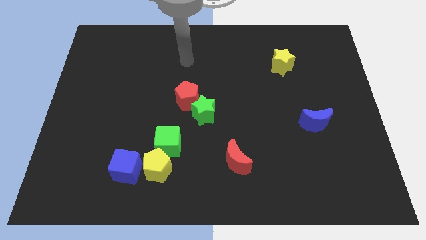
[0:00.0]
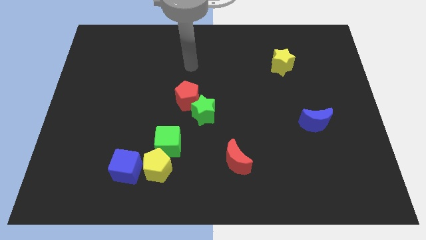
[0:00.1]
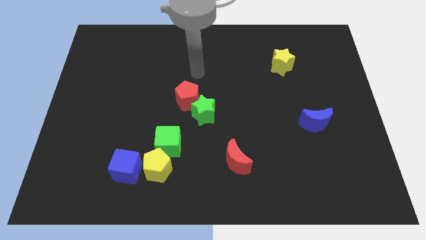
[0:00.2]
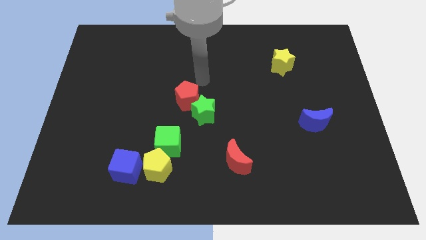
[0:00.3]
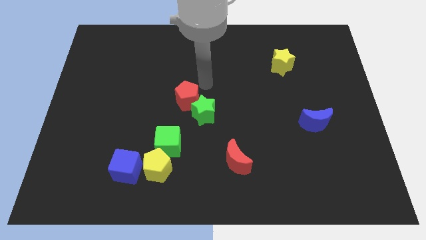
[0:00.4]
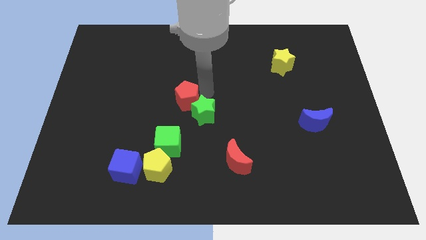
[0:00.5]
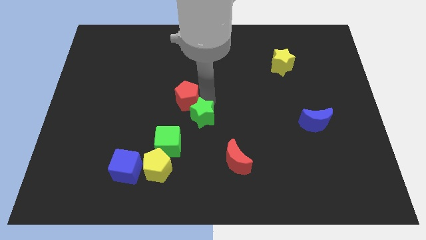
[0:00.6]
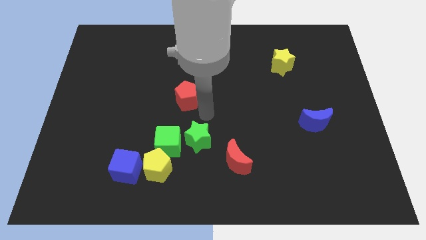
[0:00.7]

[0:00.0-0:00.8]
move the red pentagon away from the green star

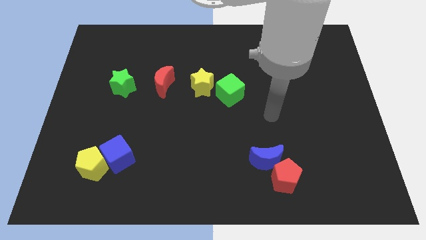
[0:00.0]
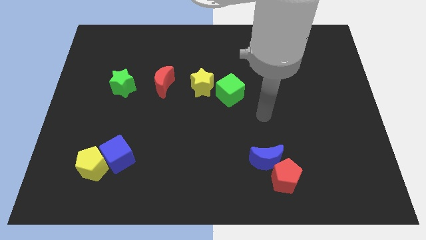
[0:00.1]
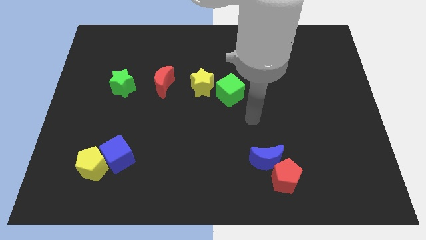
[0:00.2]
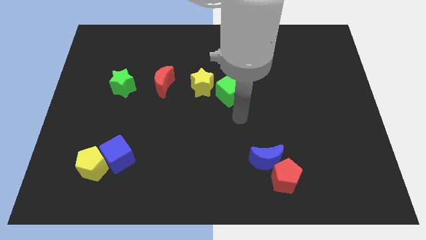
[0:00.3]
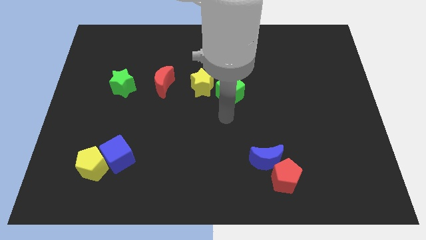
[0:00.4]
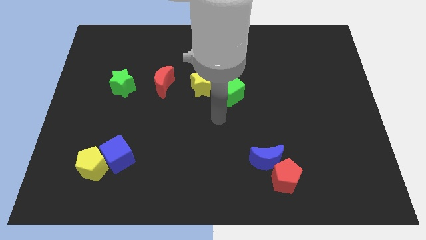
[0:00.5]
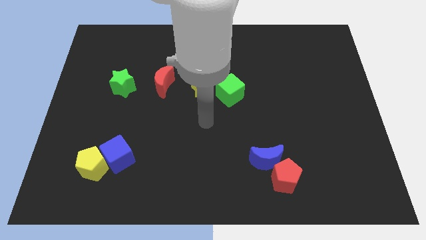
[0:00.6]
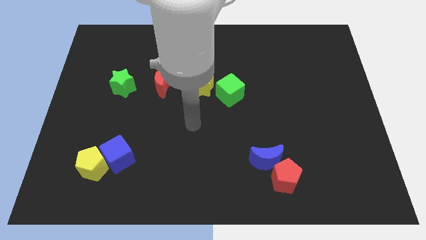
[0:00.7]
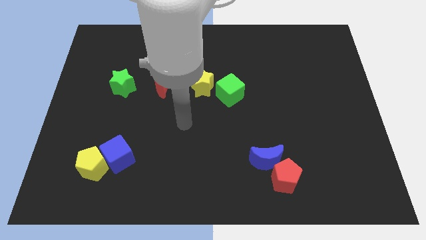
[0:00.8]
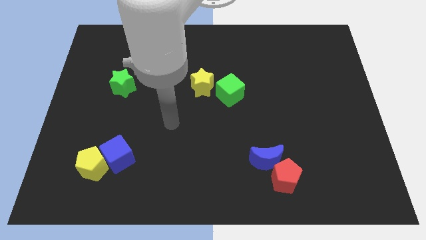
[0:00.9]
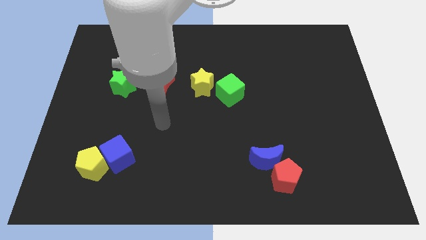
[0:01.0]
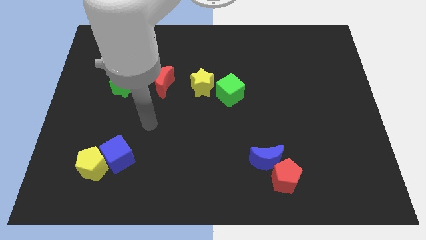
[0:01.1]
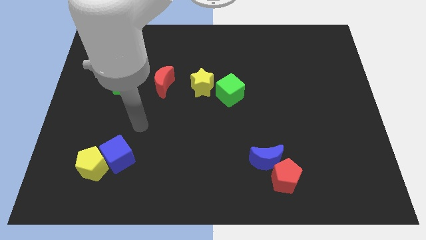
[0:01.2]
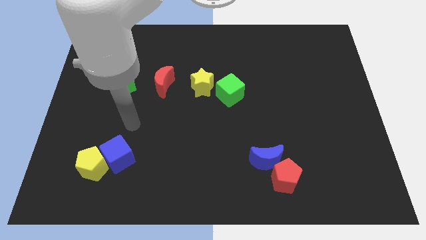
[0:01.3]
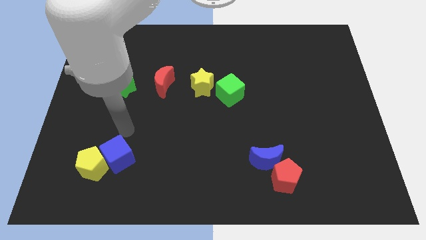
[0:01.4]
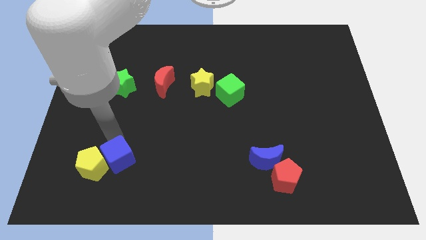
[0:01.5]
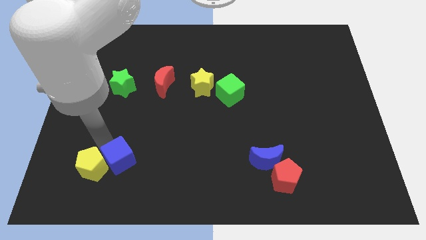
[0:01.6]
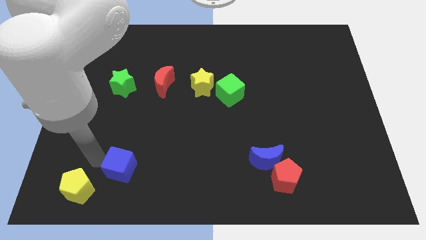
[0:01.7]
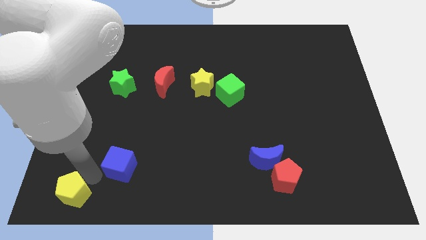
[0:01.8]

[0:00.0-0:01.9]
pull the blue cube apart from the yellow pentagon

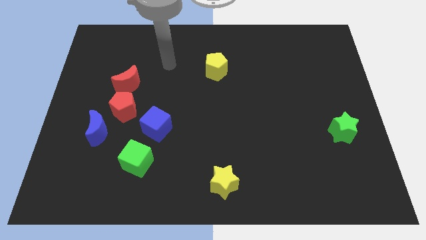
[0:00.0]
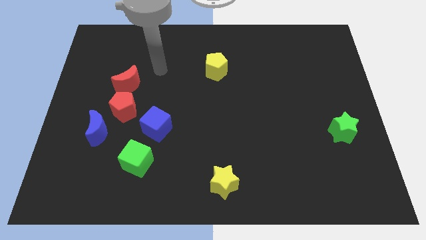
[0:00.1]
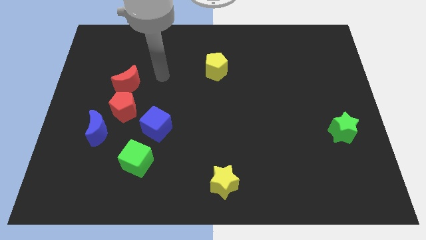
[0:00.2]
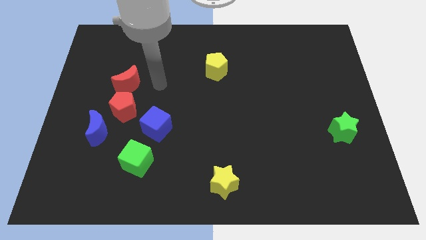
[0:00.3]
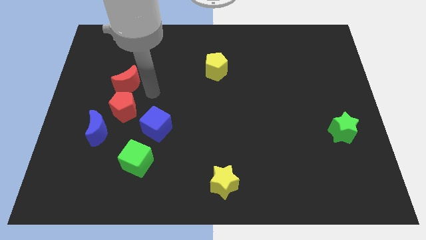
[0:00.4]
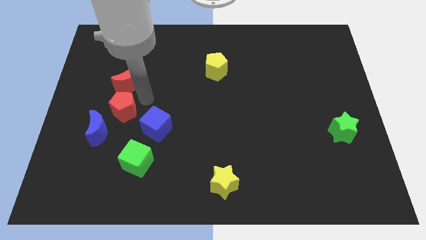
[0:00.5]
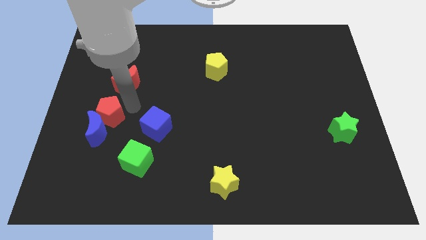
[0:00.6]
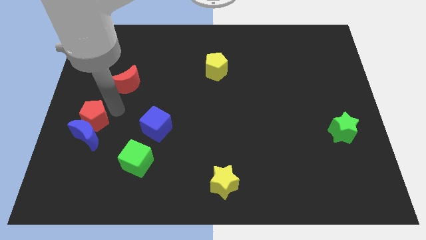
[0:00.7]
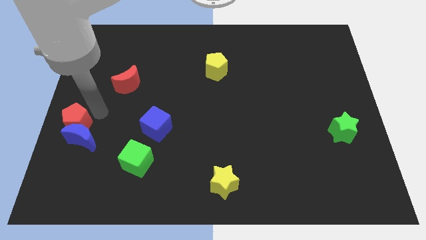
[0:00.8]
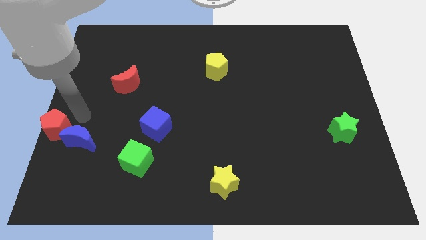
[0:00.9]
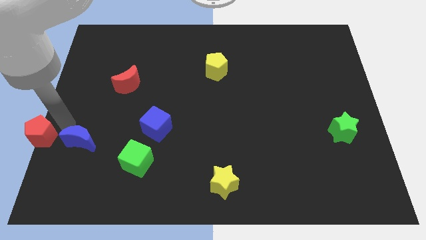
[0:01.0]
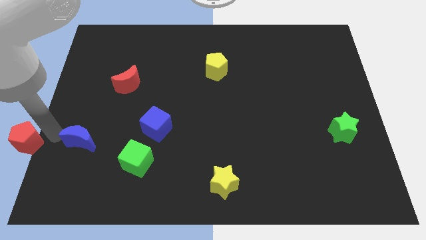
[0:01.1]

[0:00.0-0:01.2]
move the blue moon away from the red pentagon

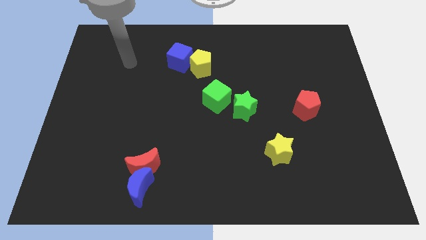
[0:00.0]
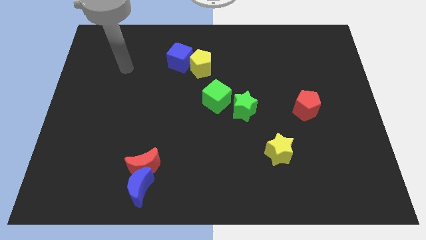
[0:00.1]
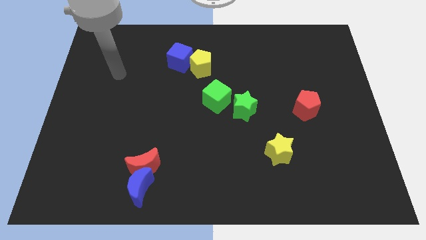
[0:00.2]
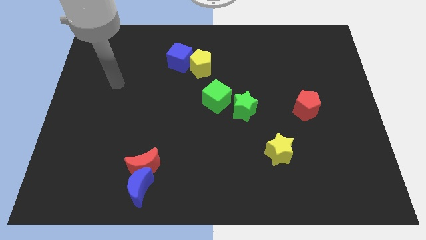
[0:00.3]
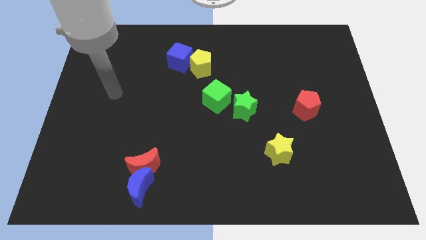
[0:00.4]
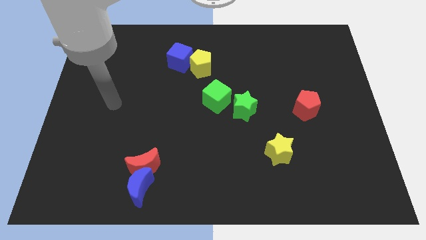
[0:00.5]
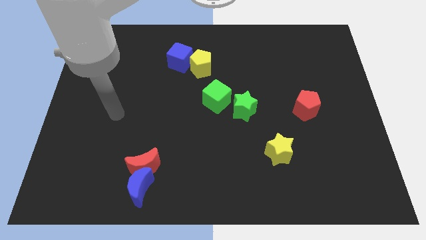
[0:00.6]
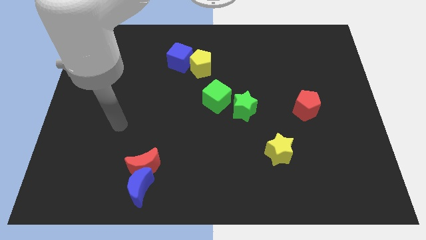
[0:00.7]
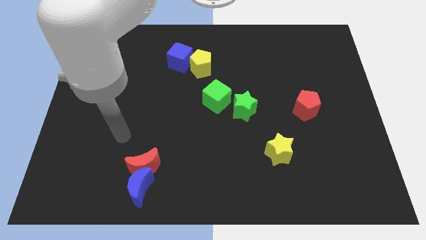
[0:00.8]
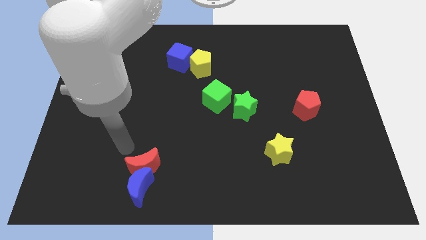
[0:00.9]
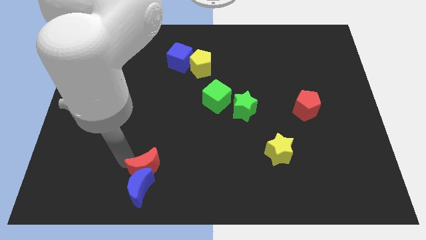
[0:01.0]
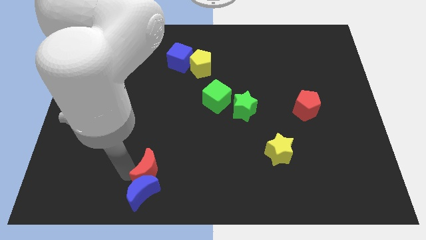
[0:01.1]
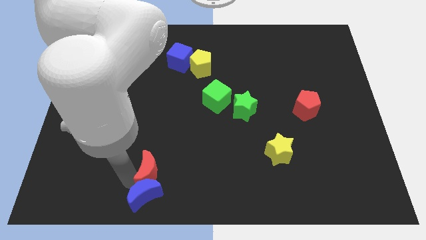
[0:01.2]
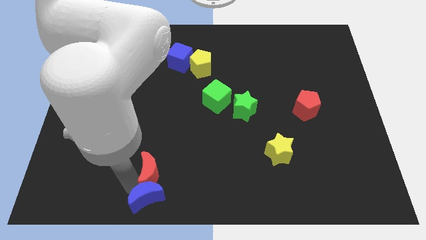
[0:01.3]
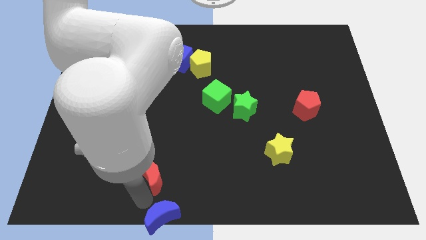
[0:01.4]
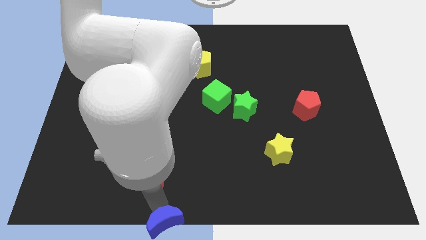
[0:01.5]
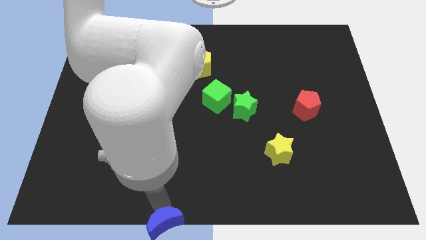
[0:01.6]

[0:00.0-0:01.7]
move the red moon away from the blue moon

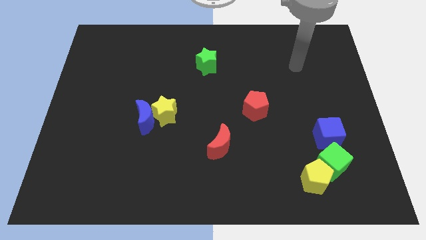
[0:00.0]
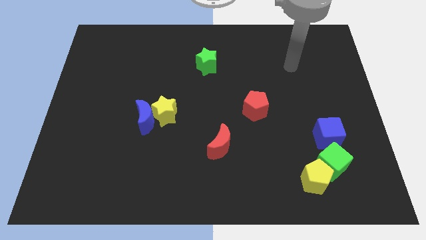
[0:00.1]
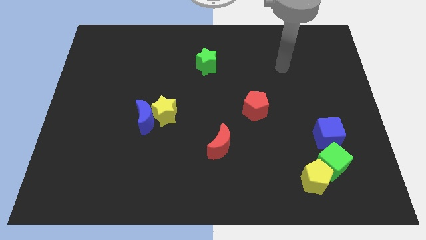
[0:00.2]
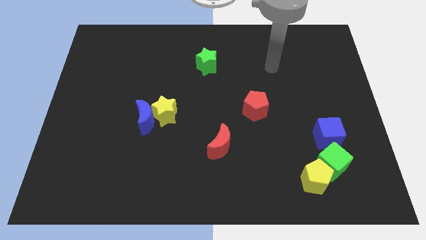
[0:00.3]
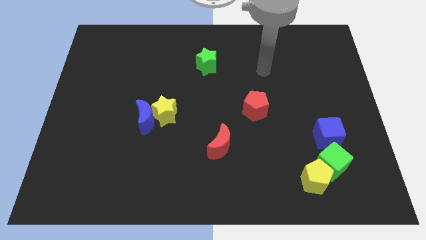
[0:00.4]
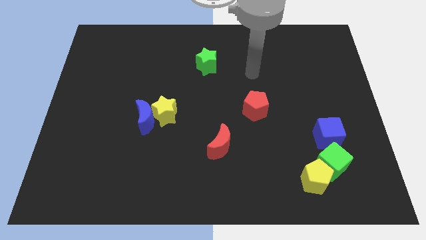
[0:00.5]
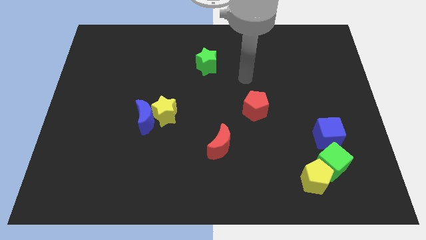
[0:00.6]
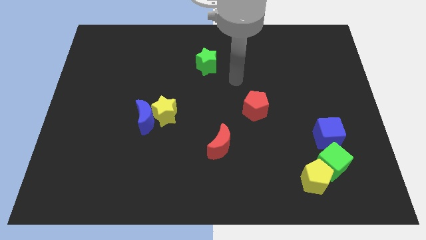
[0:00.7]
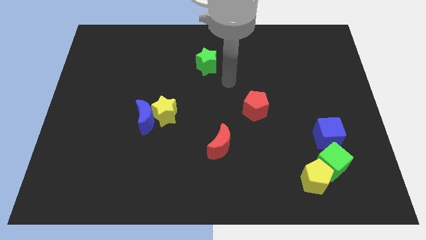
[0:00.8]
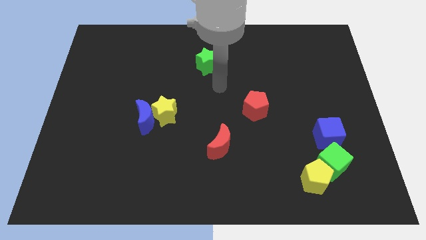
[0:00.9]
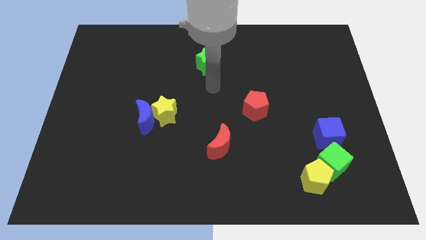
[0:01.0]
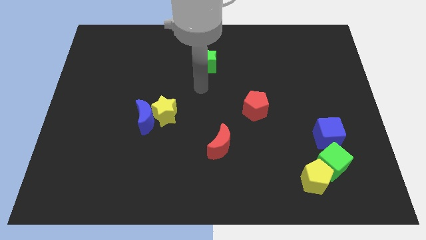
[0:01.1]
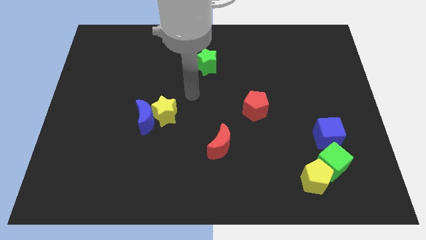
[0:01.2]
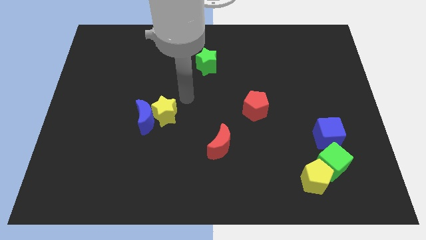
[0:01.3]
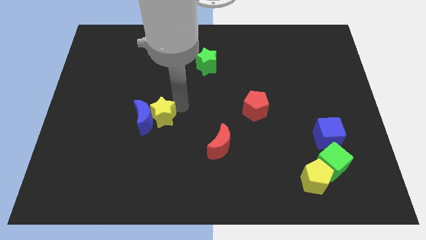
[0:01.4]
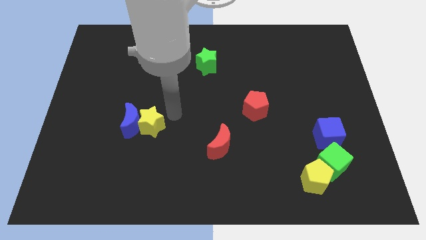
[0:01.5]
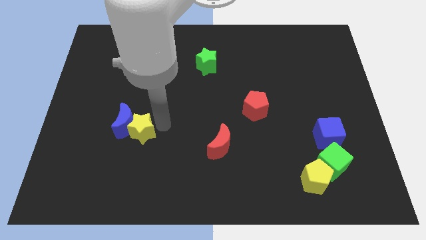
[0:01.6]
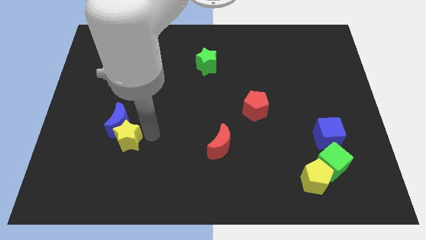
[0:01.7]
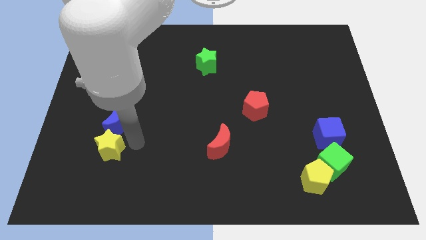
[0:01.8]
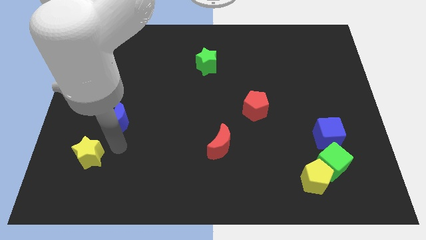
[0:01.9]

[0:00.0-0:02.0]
pull the blue moon apart from the yellow star

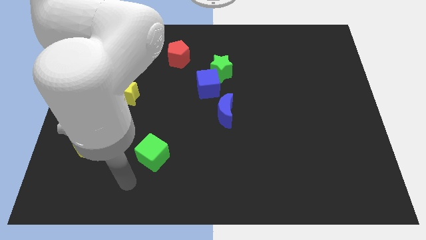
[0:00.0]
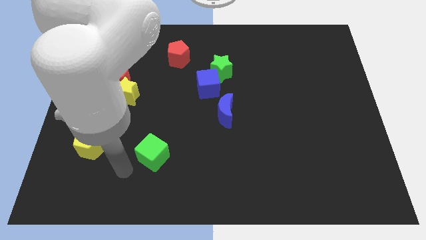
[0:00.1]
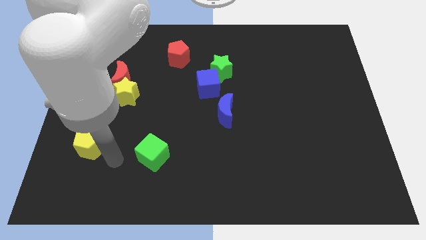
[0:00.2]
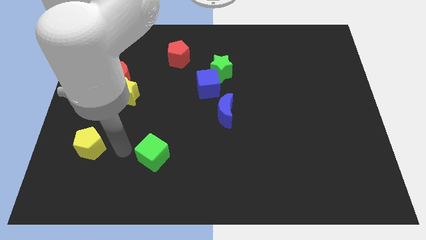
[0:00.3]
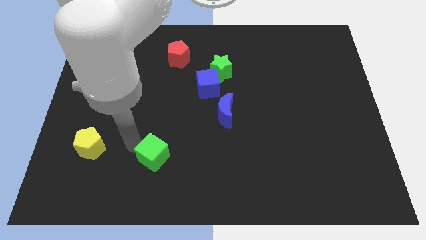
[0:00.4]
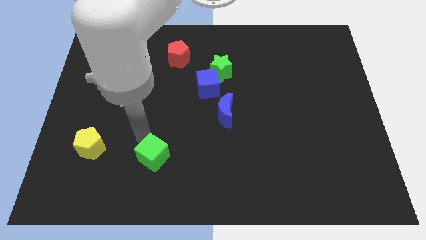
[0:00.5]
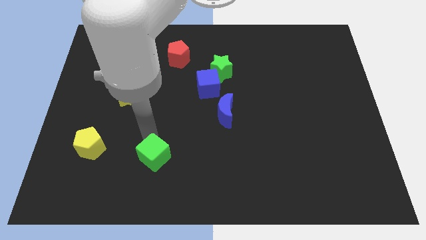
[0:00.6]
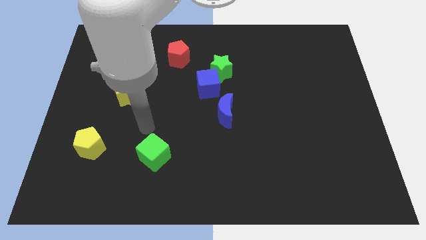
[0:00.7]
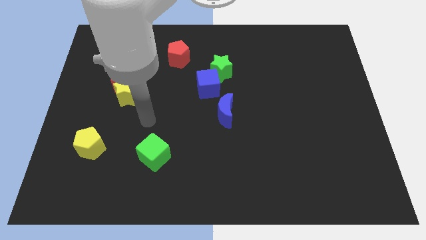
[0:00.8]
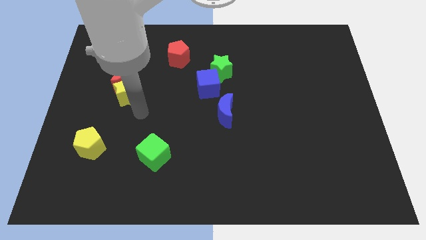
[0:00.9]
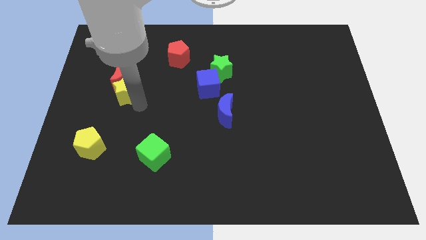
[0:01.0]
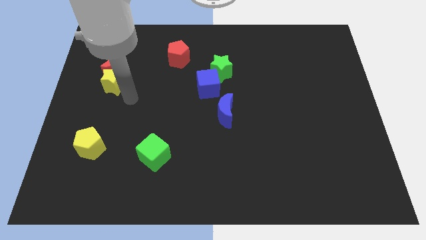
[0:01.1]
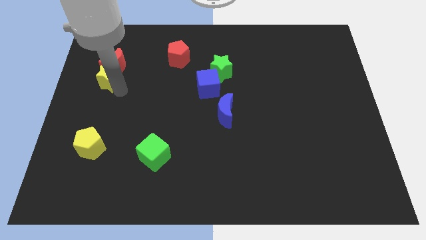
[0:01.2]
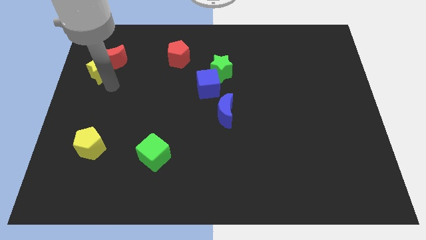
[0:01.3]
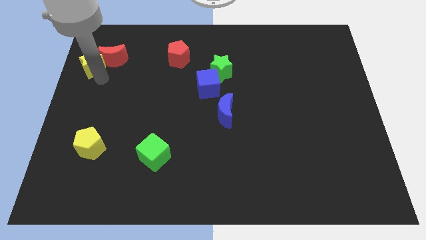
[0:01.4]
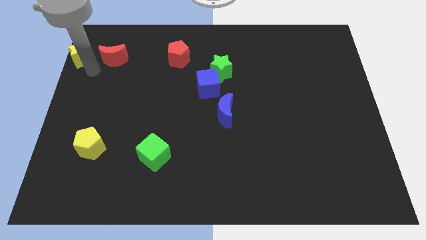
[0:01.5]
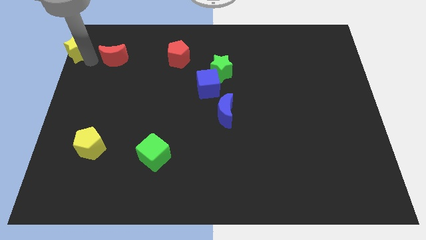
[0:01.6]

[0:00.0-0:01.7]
pull the red moon apart from the yellow star
